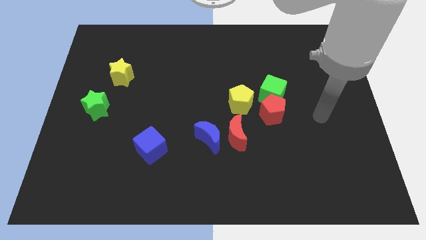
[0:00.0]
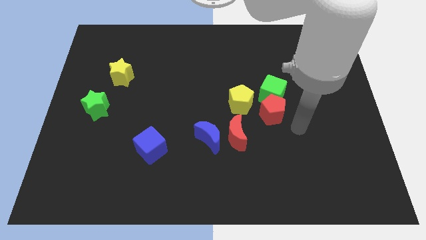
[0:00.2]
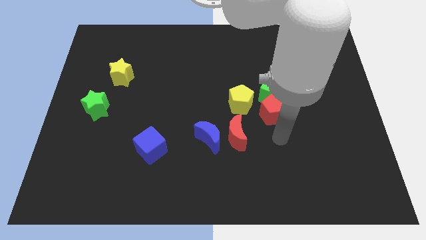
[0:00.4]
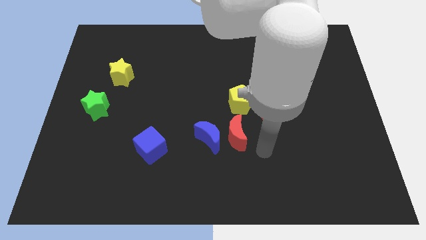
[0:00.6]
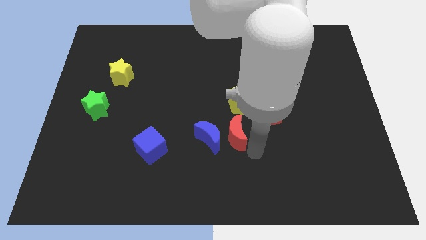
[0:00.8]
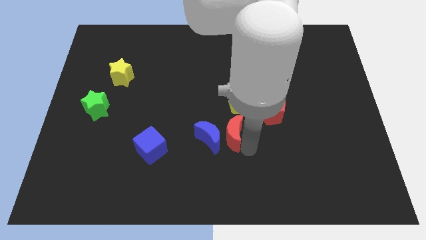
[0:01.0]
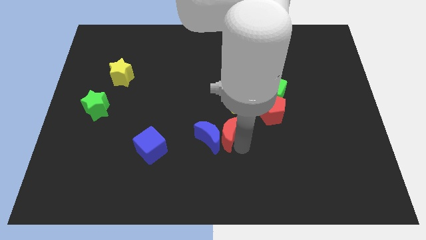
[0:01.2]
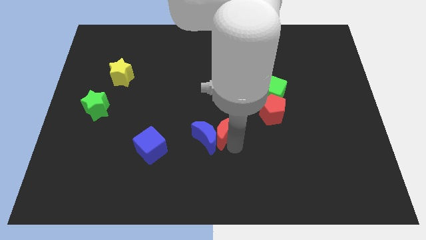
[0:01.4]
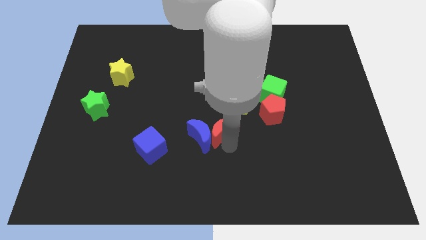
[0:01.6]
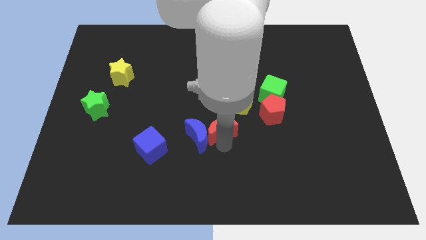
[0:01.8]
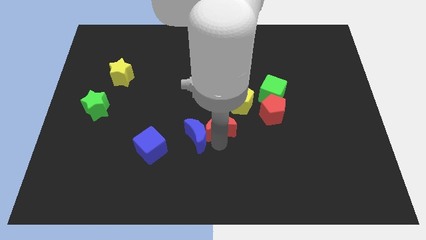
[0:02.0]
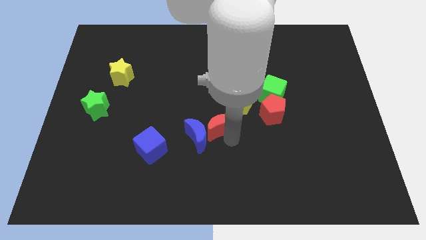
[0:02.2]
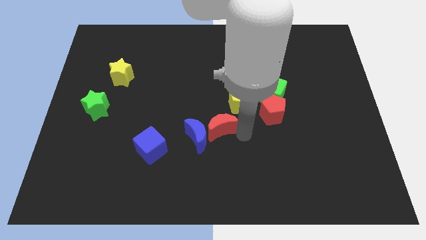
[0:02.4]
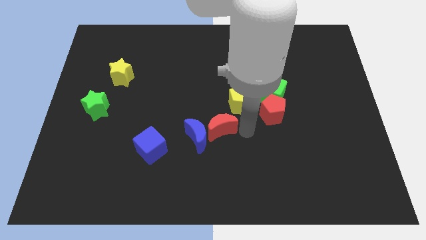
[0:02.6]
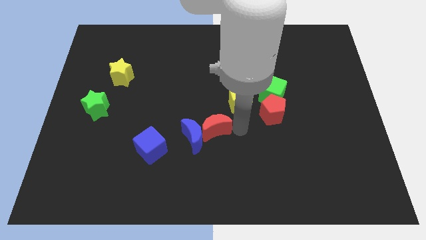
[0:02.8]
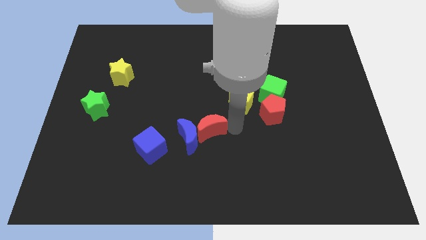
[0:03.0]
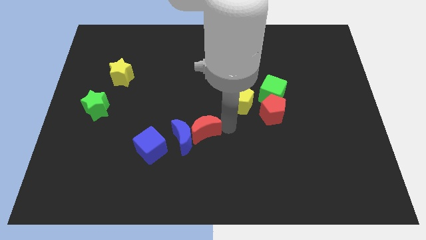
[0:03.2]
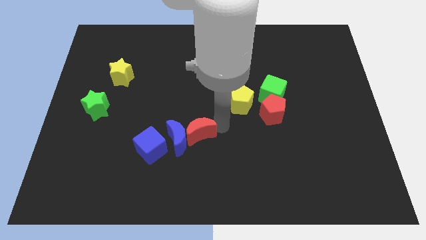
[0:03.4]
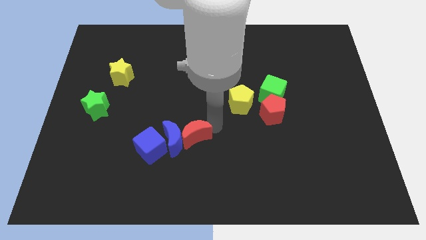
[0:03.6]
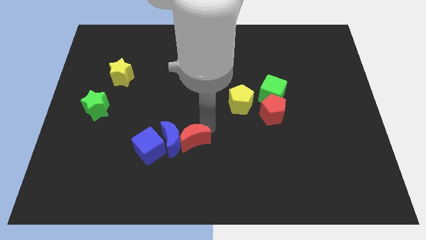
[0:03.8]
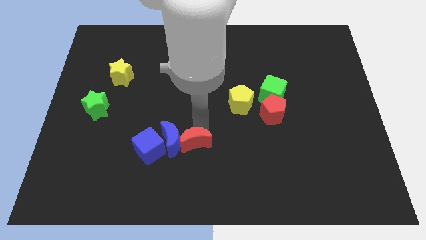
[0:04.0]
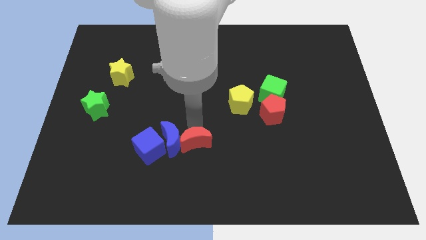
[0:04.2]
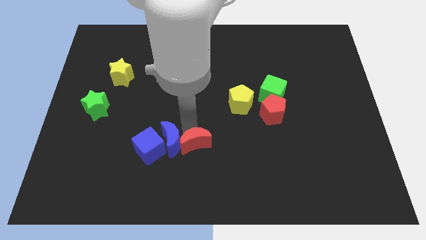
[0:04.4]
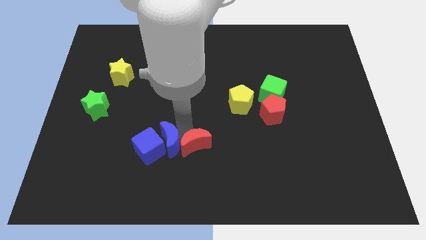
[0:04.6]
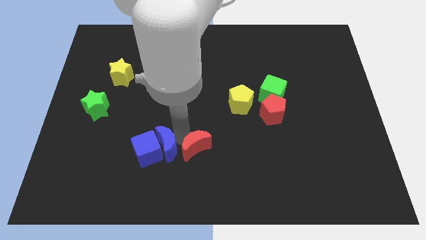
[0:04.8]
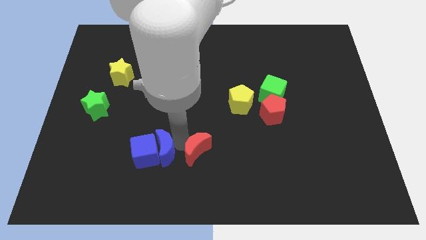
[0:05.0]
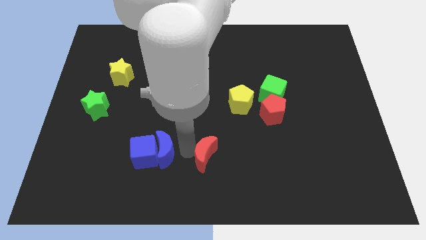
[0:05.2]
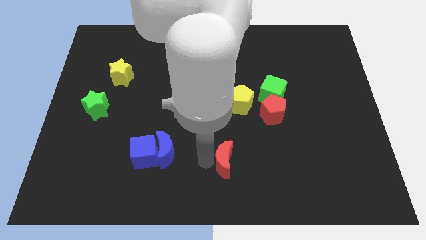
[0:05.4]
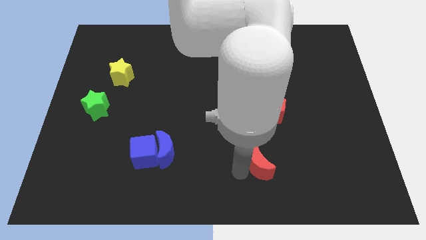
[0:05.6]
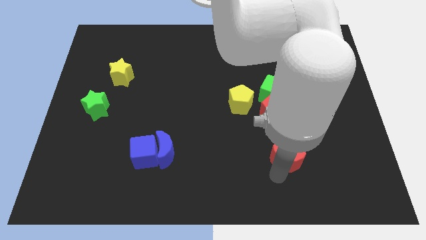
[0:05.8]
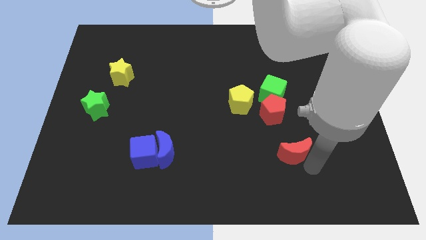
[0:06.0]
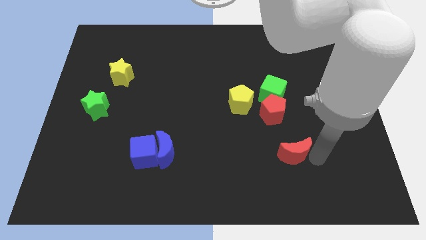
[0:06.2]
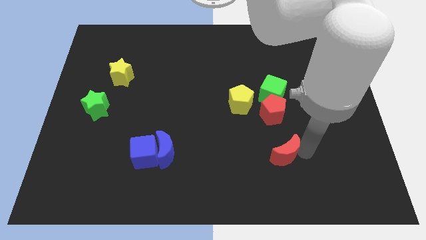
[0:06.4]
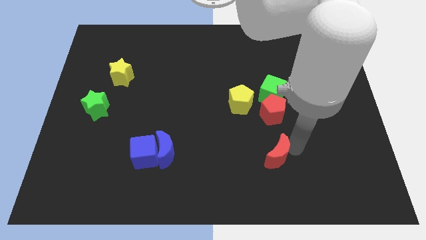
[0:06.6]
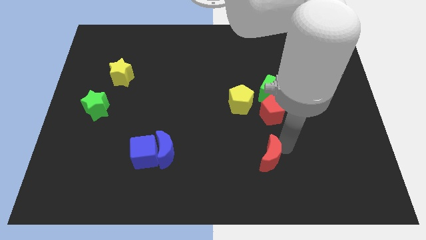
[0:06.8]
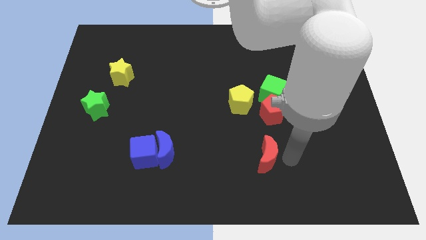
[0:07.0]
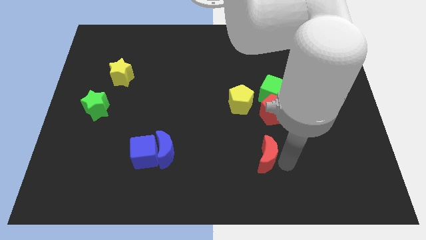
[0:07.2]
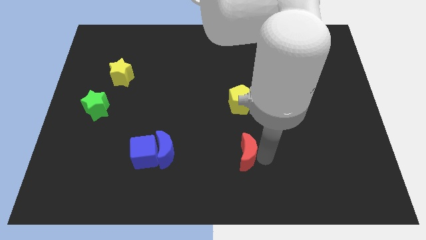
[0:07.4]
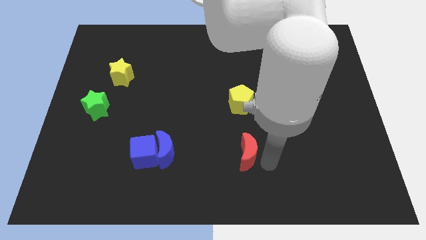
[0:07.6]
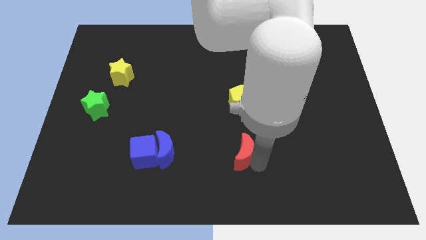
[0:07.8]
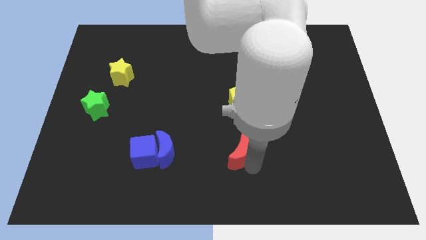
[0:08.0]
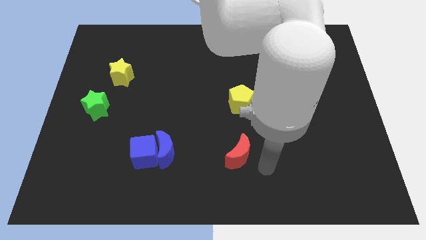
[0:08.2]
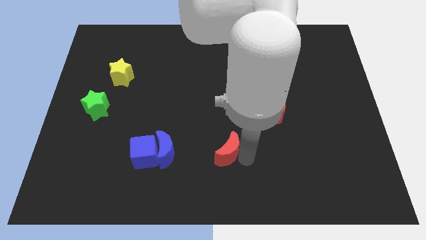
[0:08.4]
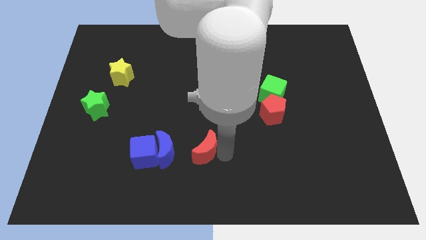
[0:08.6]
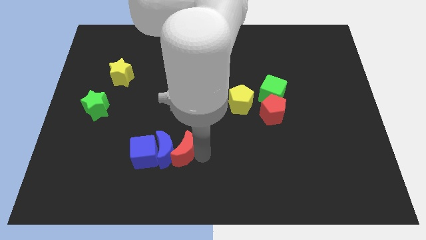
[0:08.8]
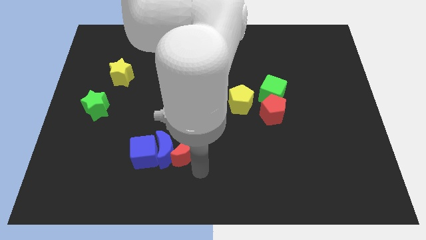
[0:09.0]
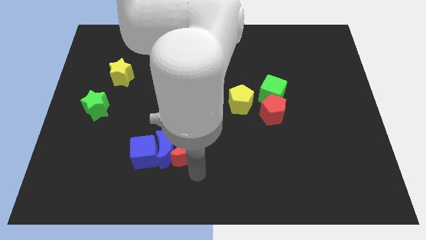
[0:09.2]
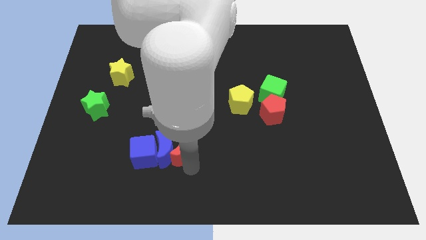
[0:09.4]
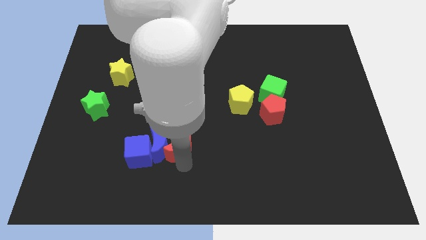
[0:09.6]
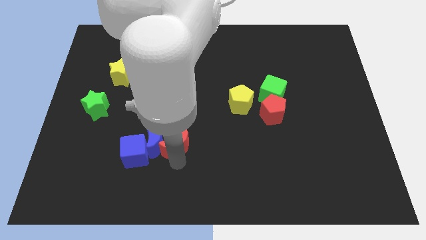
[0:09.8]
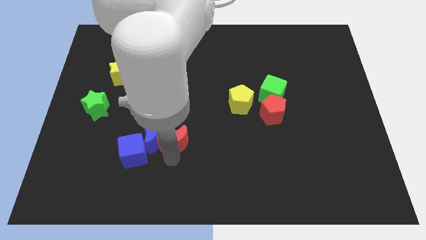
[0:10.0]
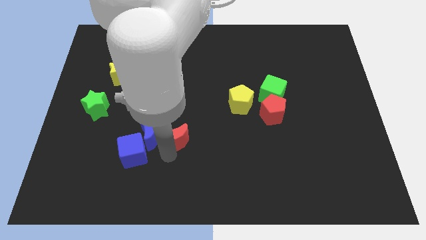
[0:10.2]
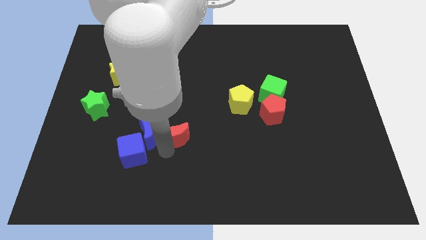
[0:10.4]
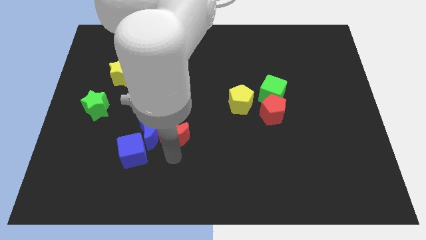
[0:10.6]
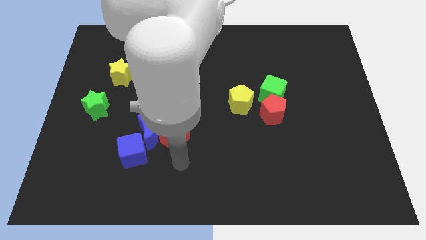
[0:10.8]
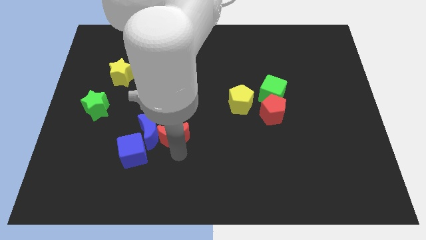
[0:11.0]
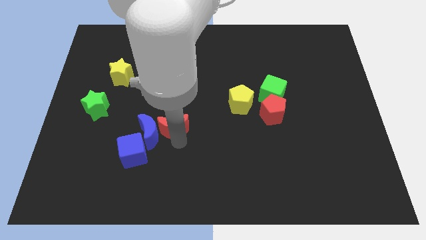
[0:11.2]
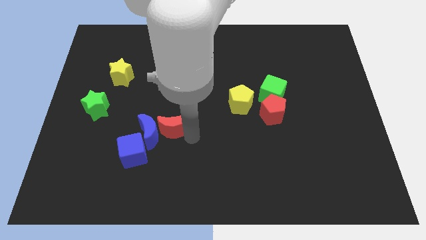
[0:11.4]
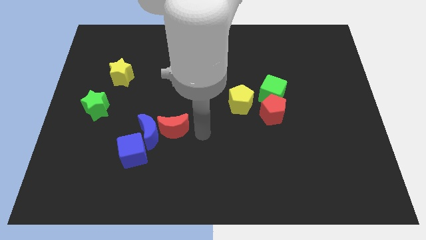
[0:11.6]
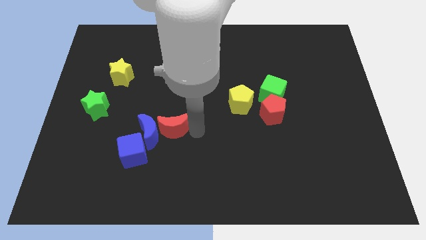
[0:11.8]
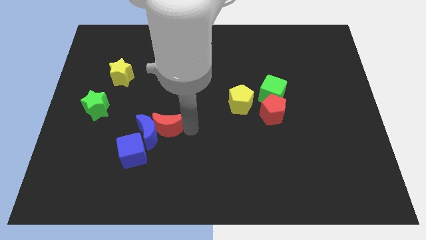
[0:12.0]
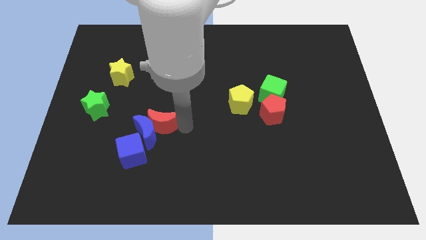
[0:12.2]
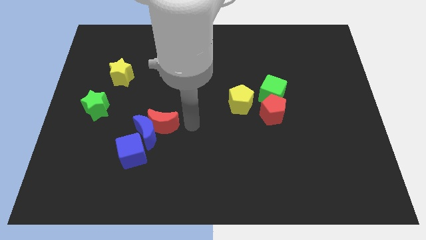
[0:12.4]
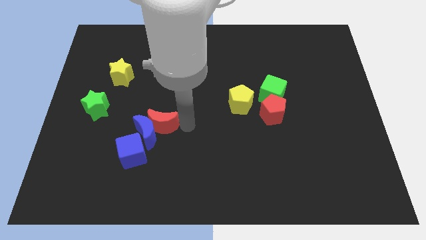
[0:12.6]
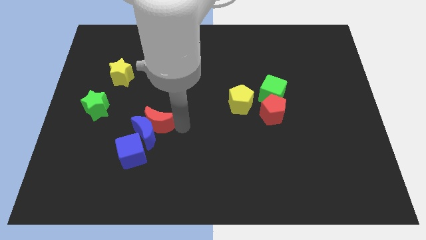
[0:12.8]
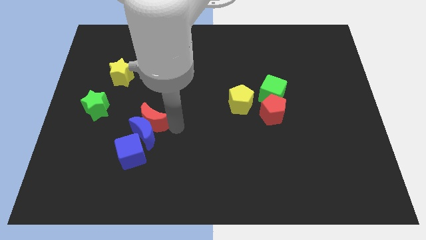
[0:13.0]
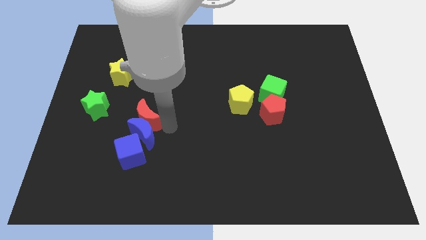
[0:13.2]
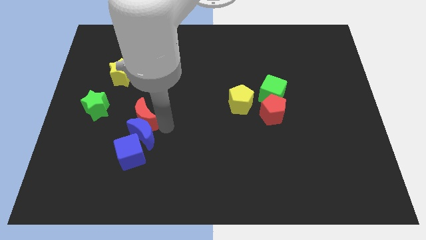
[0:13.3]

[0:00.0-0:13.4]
slide the red moon to the left

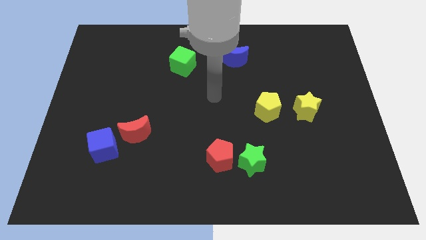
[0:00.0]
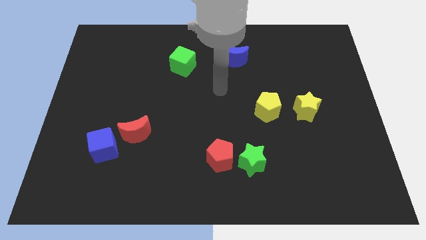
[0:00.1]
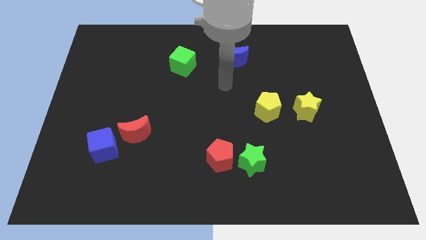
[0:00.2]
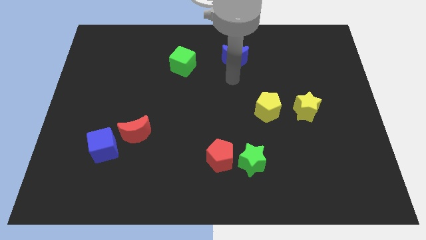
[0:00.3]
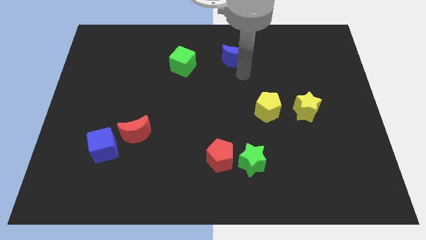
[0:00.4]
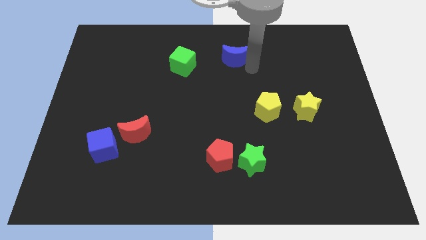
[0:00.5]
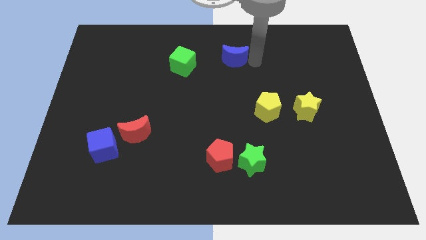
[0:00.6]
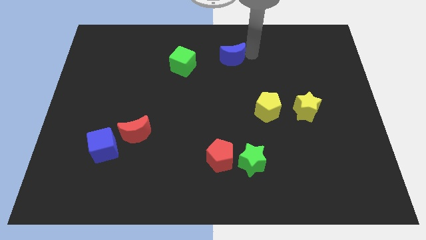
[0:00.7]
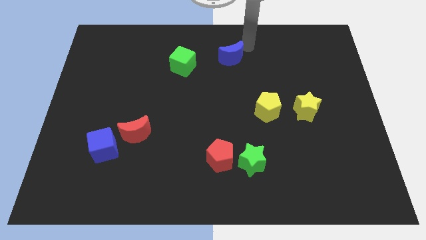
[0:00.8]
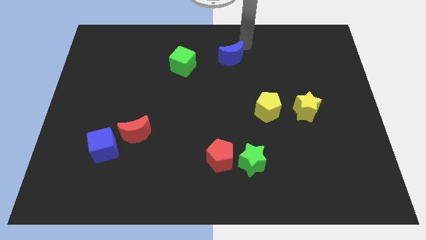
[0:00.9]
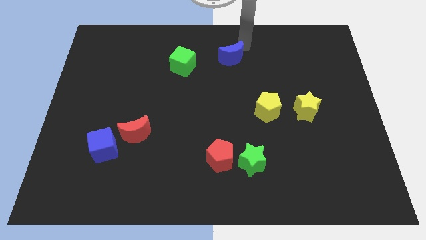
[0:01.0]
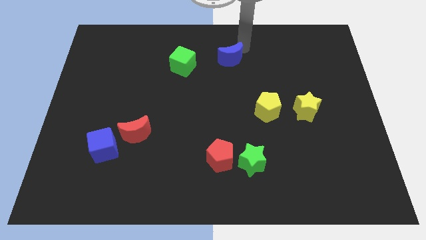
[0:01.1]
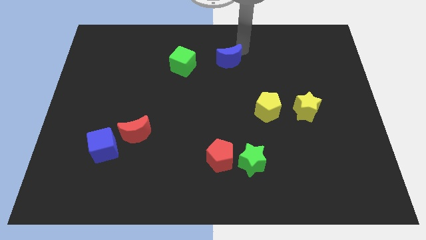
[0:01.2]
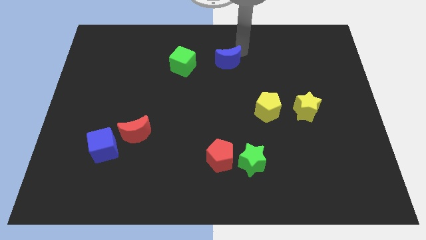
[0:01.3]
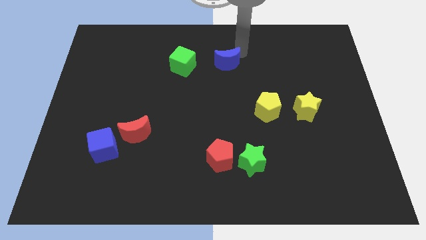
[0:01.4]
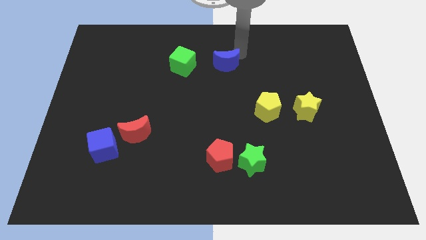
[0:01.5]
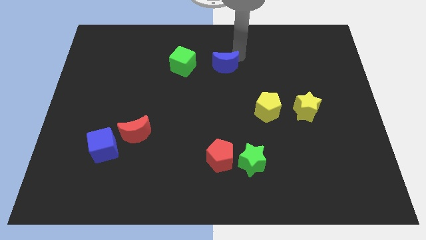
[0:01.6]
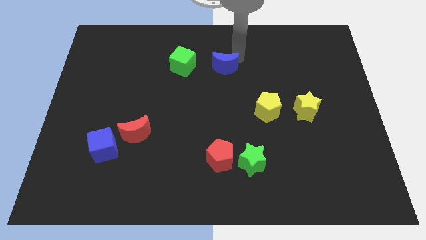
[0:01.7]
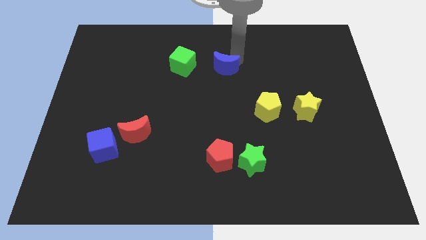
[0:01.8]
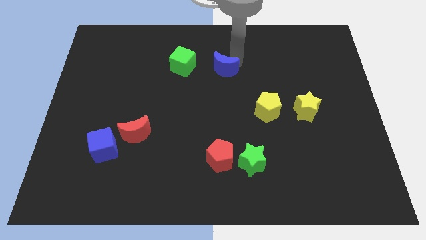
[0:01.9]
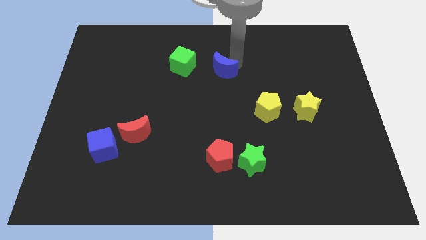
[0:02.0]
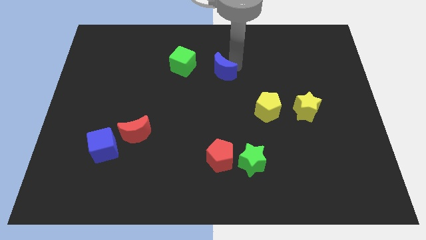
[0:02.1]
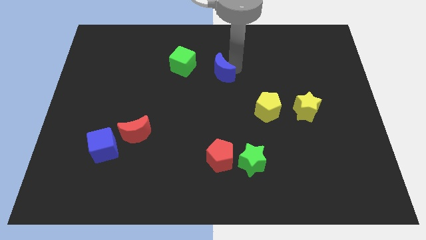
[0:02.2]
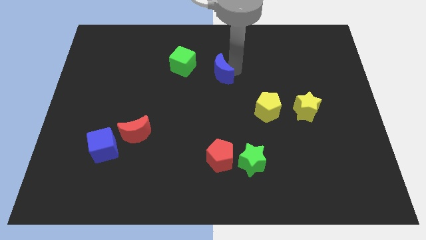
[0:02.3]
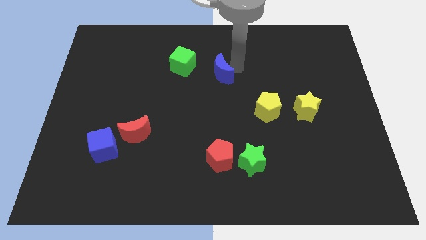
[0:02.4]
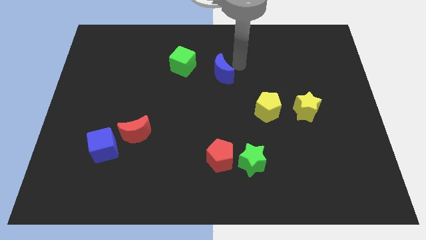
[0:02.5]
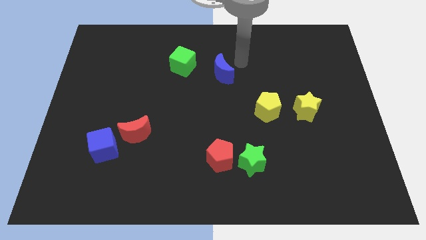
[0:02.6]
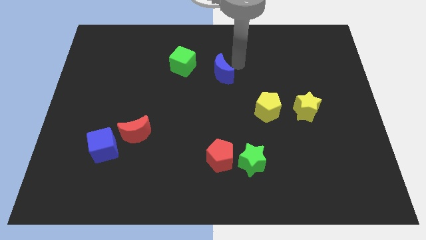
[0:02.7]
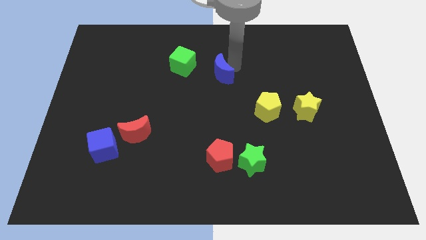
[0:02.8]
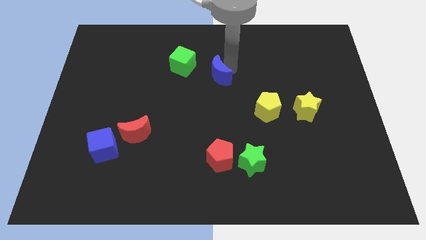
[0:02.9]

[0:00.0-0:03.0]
move the blue moon down and then to the left a little
